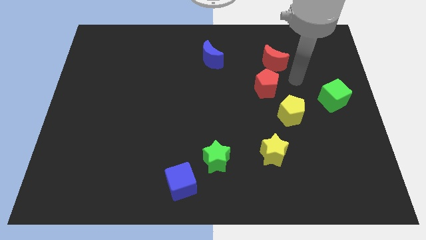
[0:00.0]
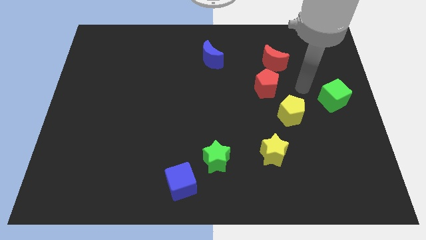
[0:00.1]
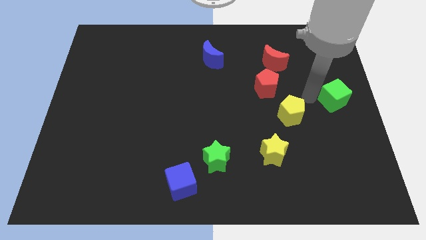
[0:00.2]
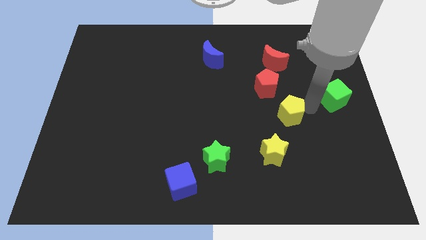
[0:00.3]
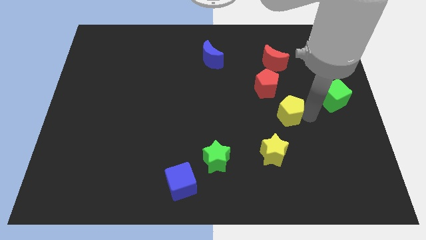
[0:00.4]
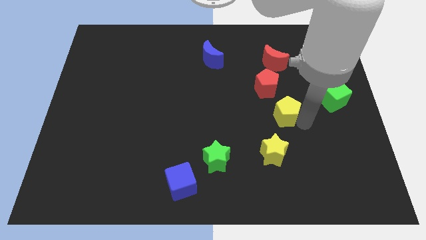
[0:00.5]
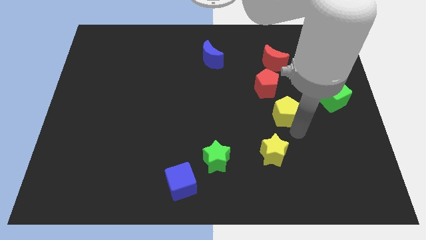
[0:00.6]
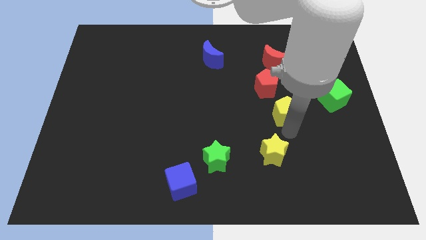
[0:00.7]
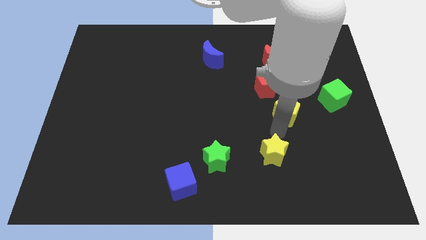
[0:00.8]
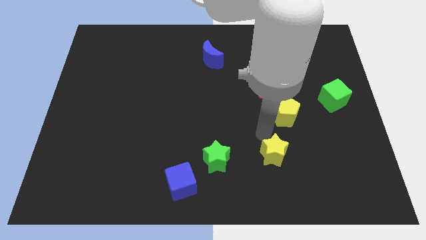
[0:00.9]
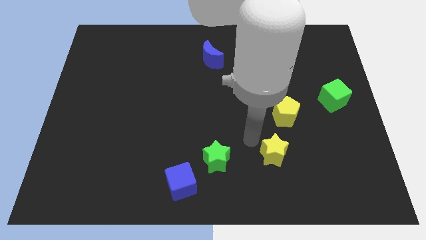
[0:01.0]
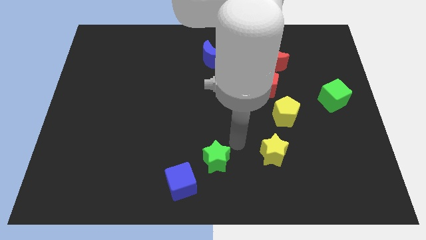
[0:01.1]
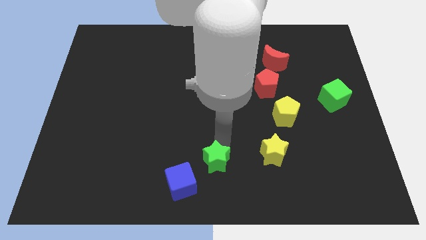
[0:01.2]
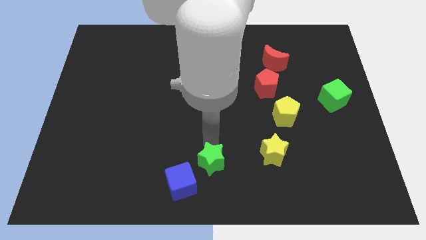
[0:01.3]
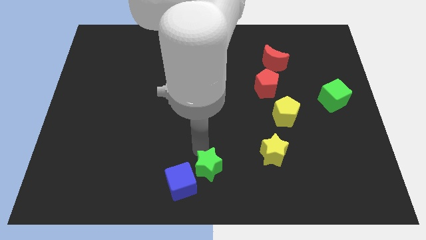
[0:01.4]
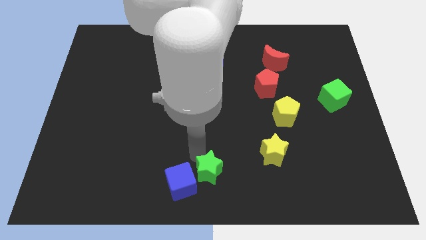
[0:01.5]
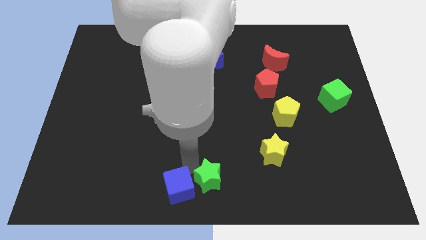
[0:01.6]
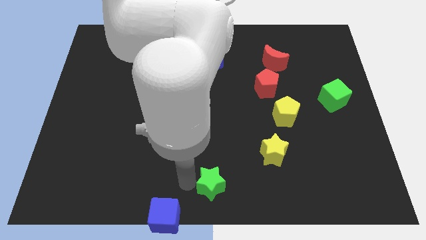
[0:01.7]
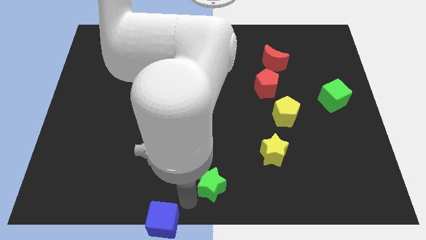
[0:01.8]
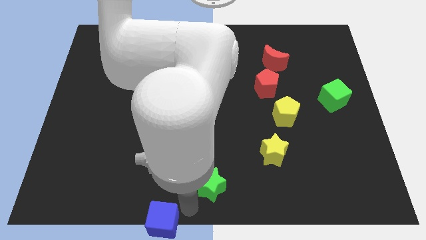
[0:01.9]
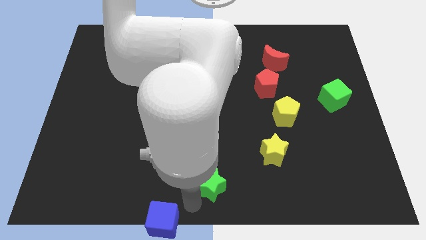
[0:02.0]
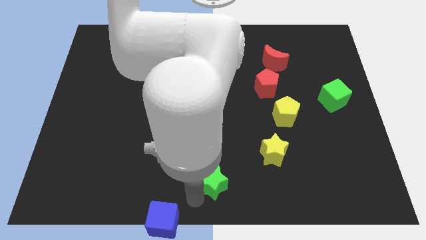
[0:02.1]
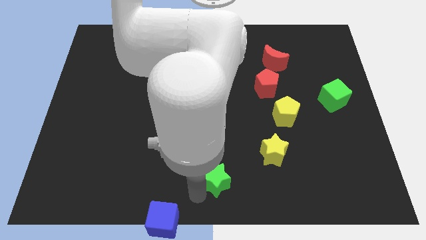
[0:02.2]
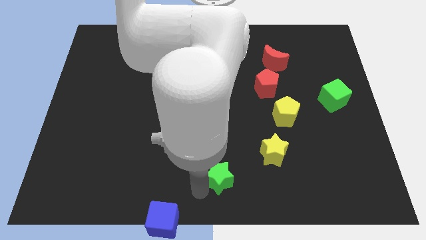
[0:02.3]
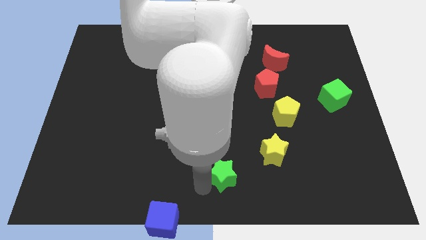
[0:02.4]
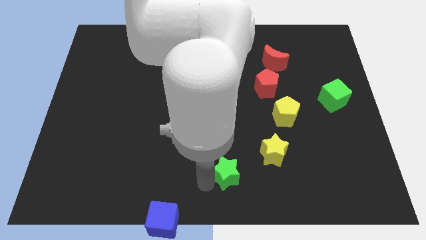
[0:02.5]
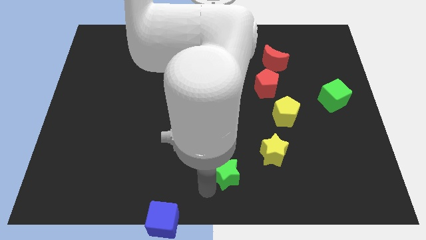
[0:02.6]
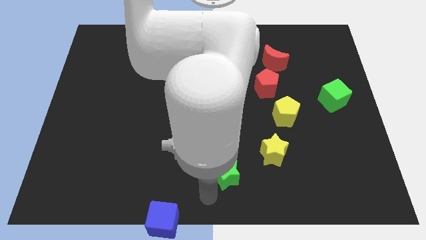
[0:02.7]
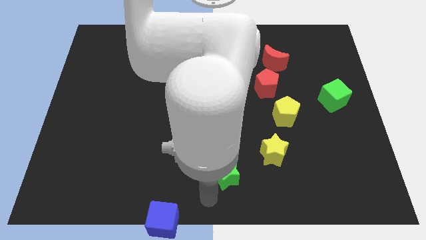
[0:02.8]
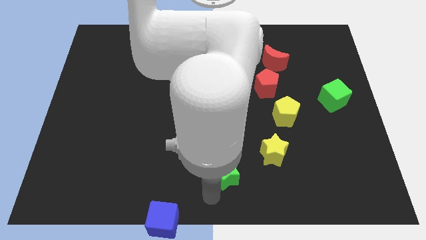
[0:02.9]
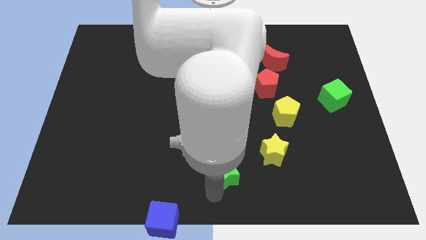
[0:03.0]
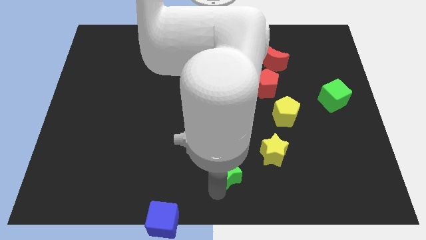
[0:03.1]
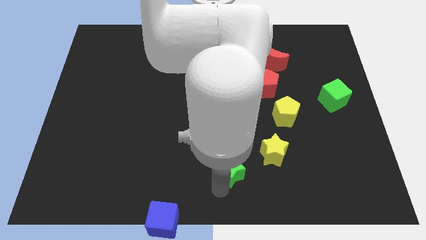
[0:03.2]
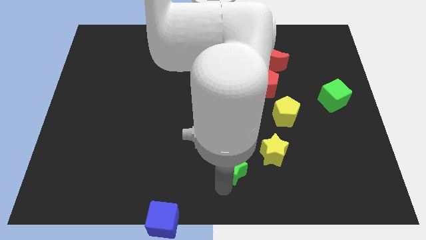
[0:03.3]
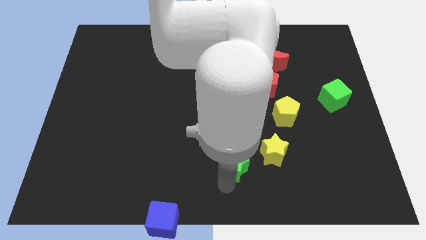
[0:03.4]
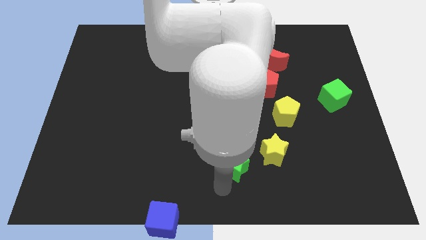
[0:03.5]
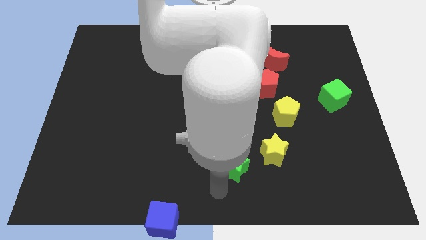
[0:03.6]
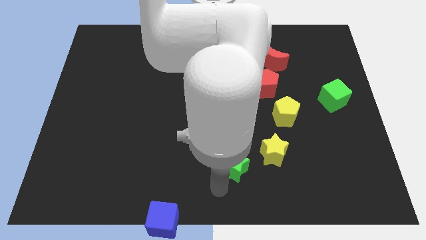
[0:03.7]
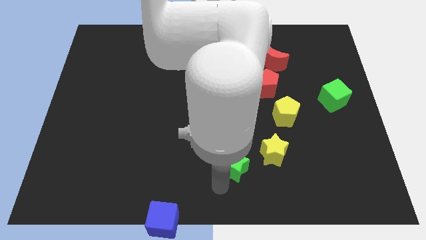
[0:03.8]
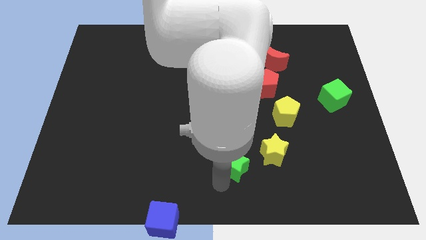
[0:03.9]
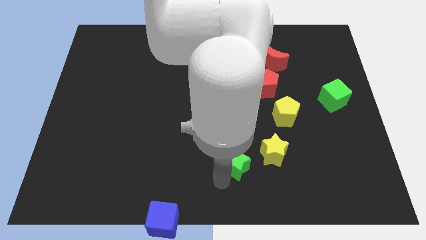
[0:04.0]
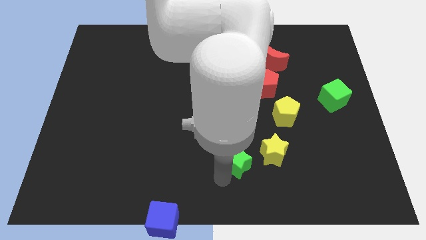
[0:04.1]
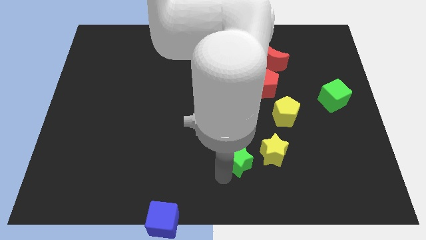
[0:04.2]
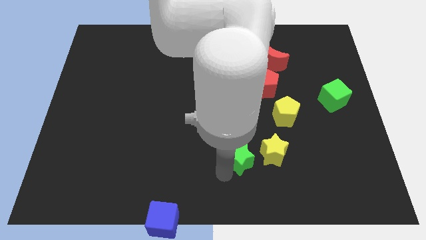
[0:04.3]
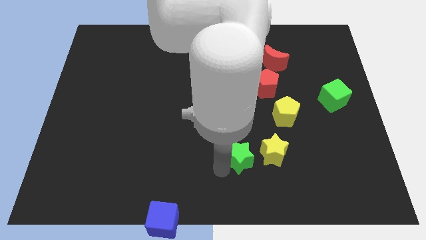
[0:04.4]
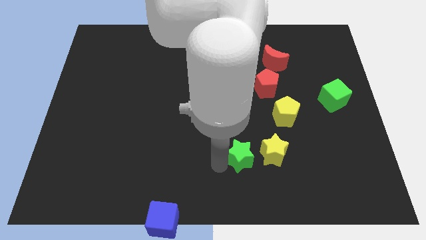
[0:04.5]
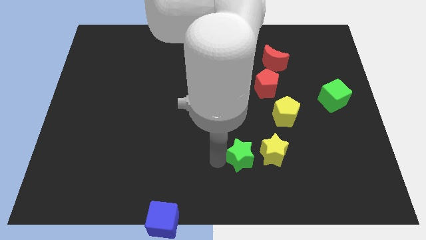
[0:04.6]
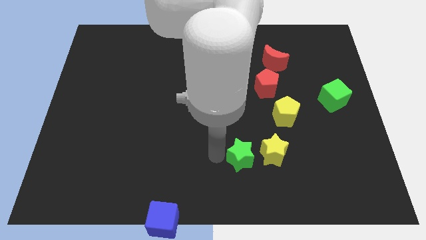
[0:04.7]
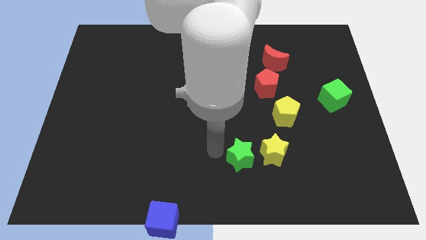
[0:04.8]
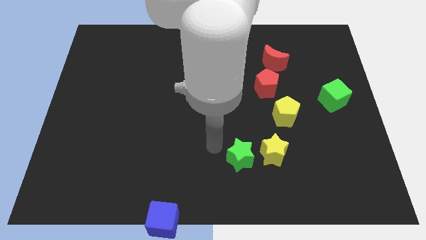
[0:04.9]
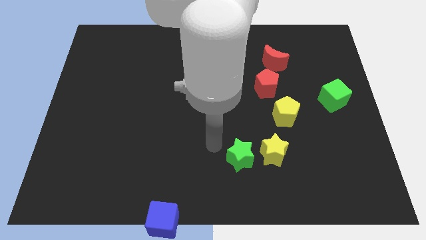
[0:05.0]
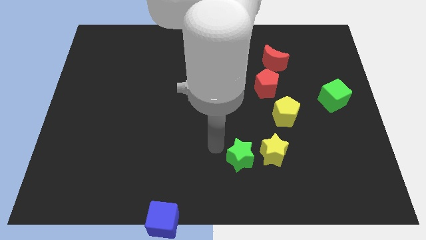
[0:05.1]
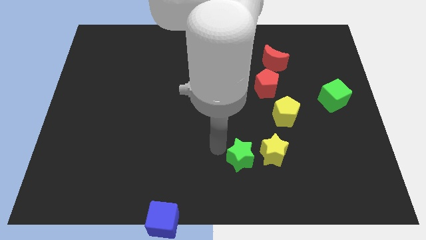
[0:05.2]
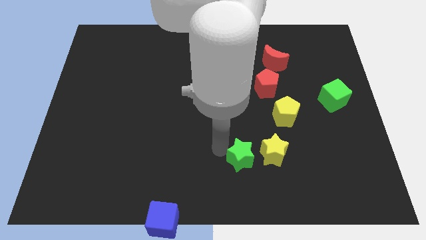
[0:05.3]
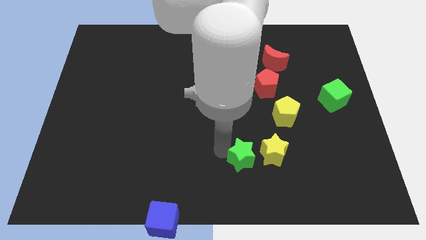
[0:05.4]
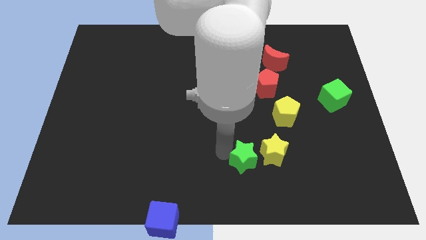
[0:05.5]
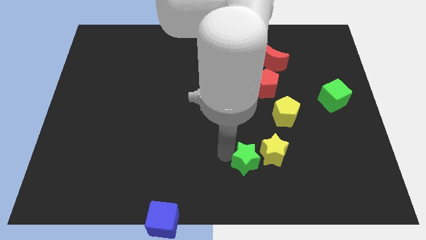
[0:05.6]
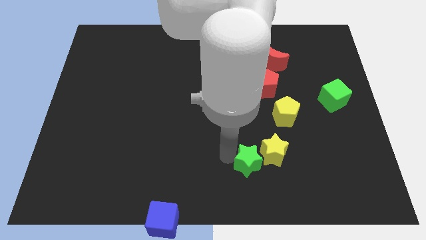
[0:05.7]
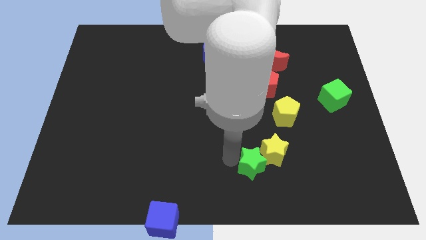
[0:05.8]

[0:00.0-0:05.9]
slide the green star somewhat right

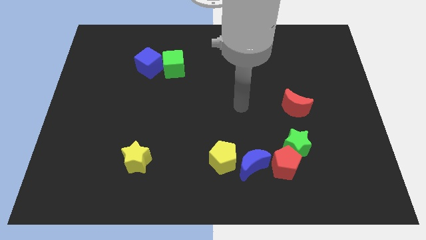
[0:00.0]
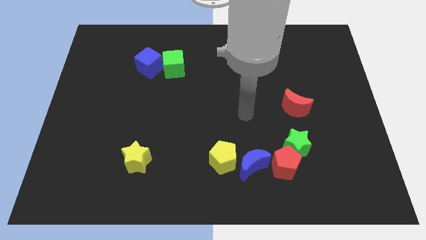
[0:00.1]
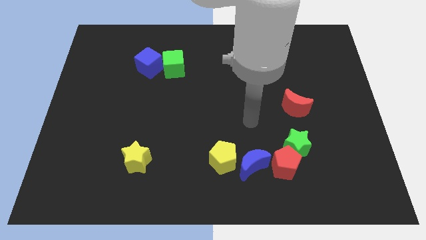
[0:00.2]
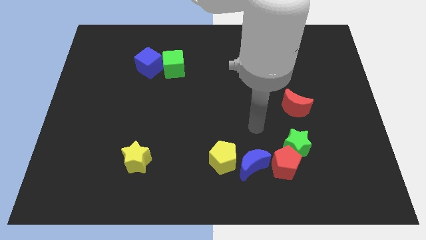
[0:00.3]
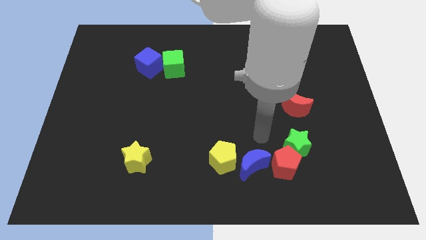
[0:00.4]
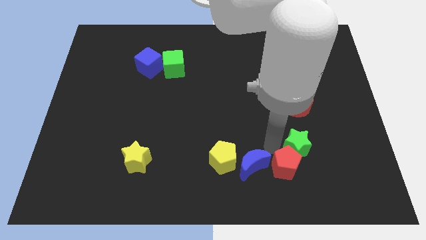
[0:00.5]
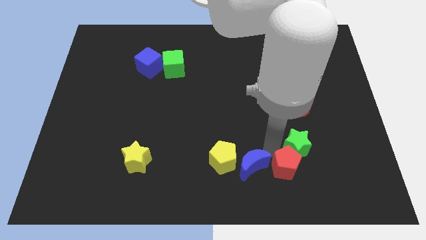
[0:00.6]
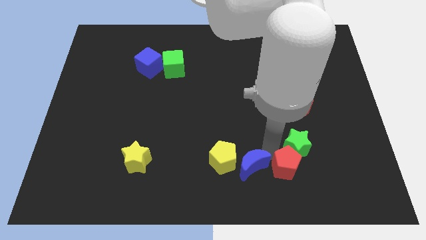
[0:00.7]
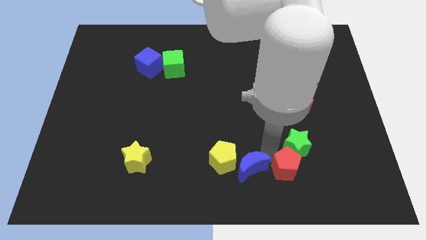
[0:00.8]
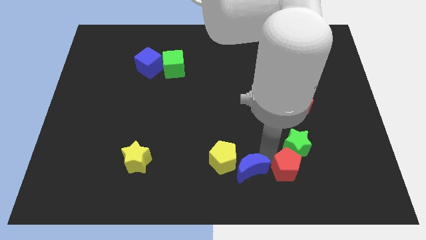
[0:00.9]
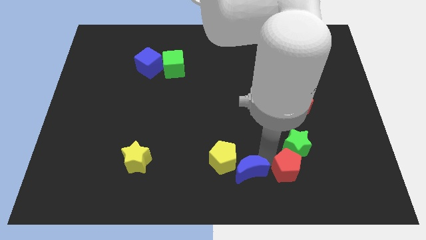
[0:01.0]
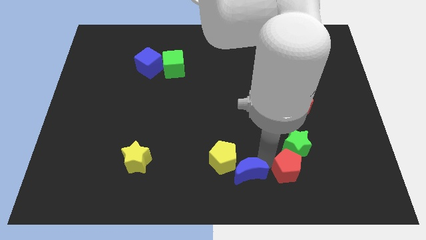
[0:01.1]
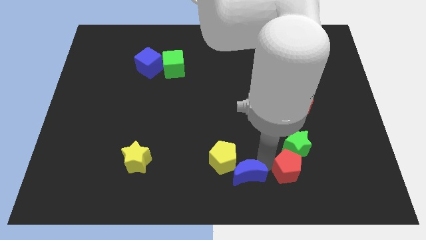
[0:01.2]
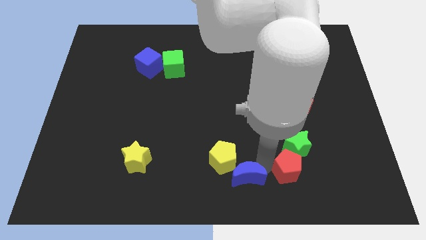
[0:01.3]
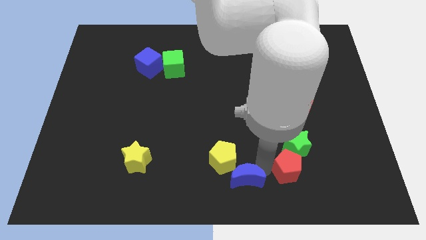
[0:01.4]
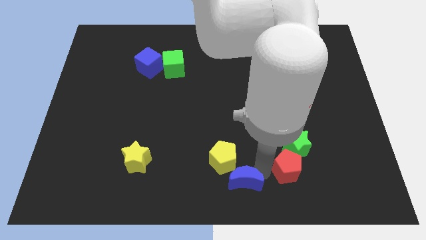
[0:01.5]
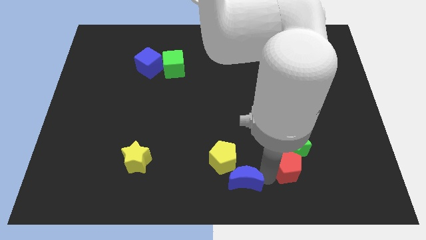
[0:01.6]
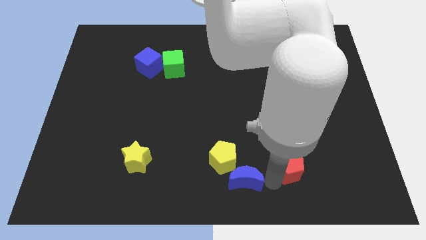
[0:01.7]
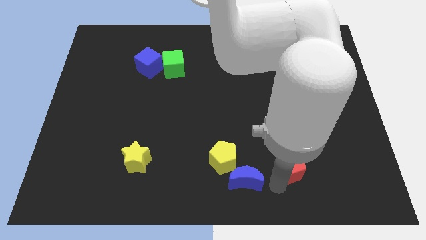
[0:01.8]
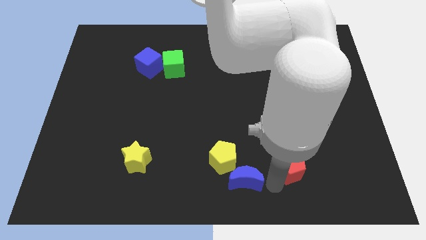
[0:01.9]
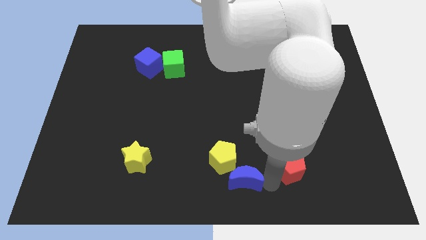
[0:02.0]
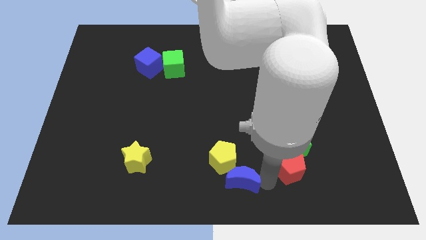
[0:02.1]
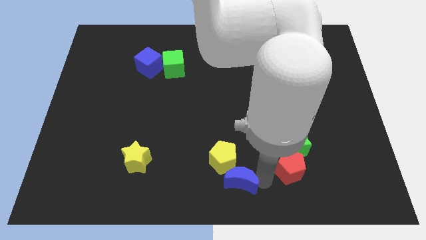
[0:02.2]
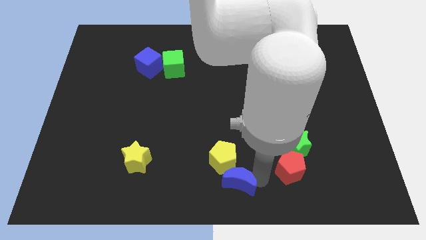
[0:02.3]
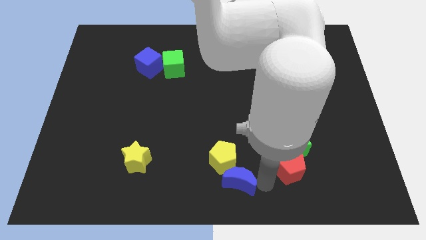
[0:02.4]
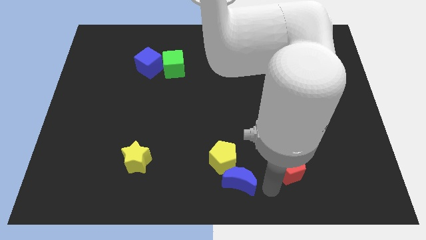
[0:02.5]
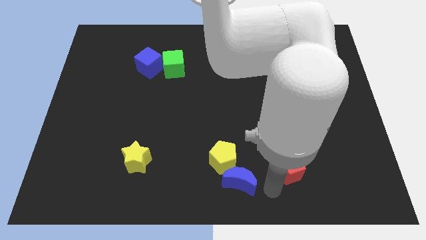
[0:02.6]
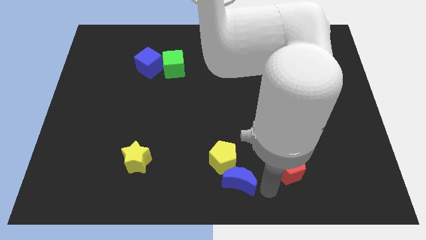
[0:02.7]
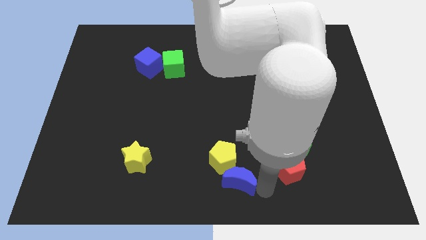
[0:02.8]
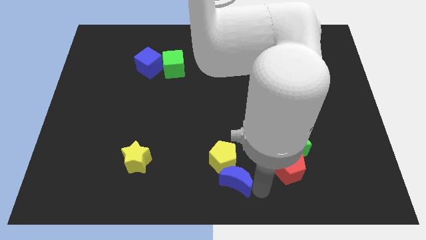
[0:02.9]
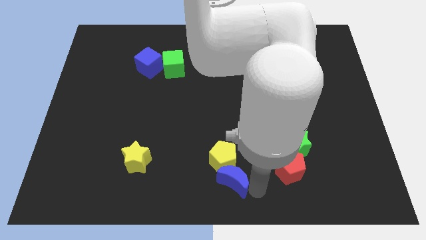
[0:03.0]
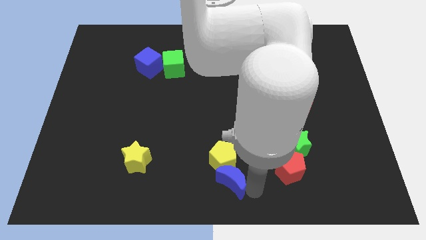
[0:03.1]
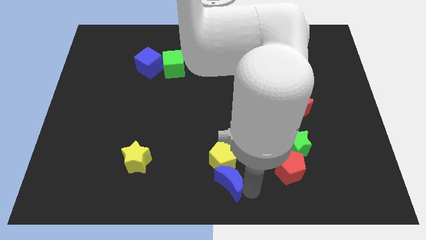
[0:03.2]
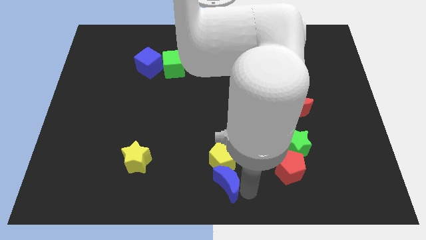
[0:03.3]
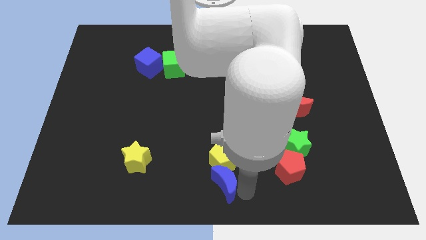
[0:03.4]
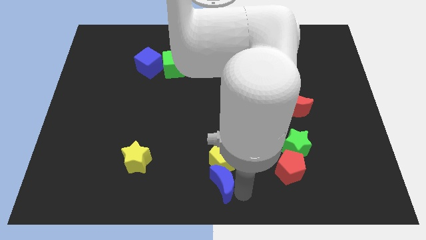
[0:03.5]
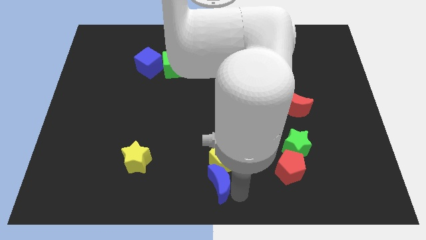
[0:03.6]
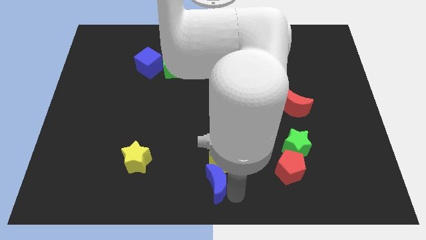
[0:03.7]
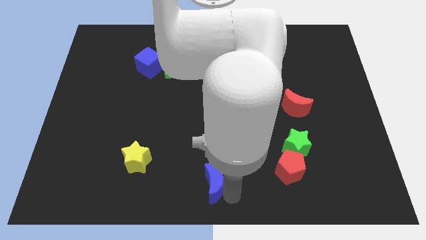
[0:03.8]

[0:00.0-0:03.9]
push the blue moon somewhat left
